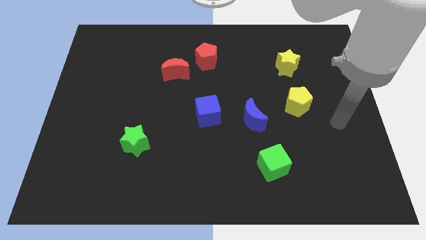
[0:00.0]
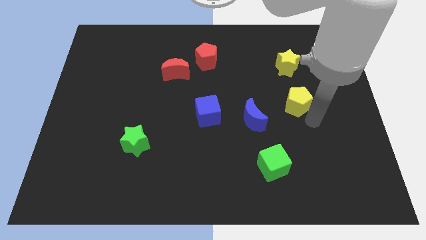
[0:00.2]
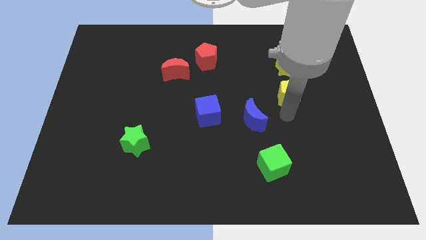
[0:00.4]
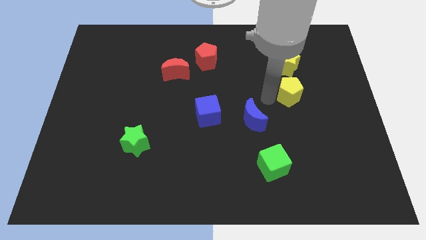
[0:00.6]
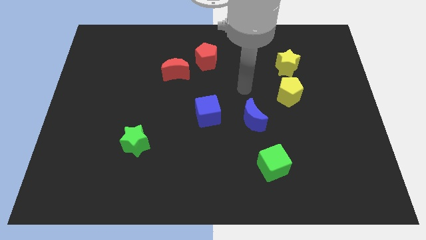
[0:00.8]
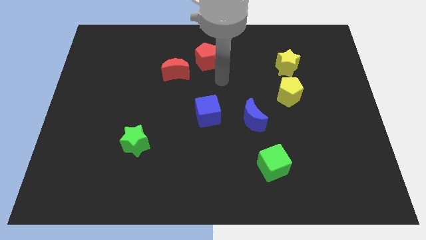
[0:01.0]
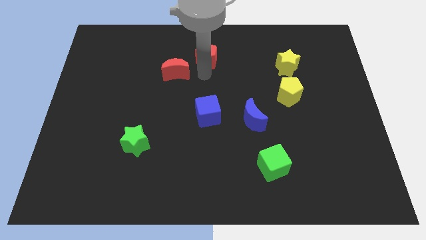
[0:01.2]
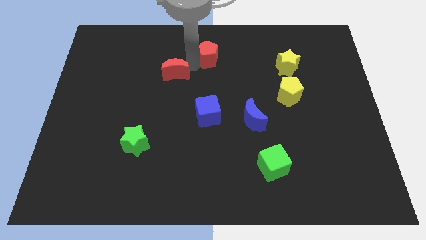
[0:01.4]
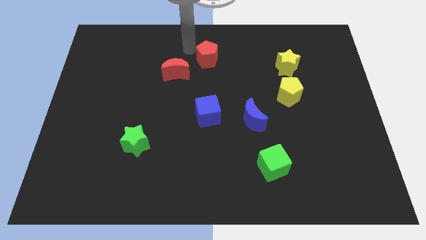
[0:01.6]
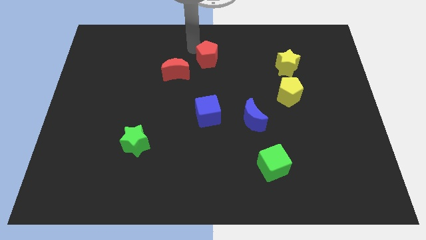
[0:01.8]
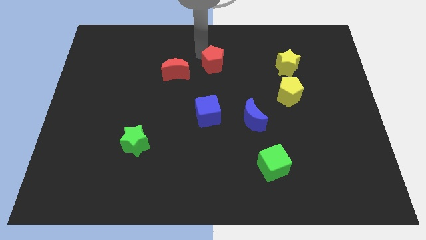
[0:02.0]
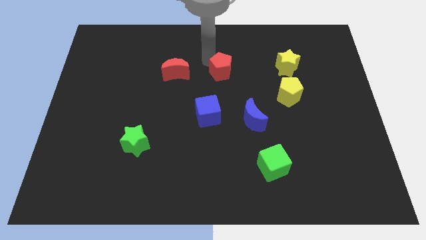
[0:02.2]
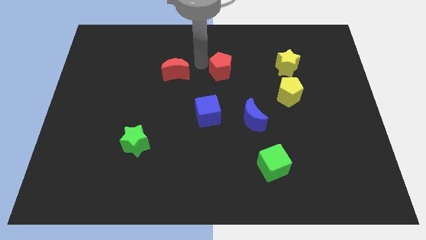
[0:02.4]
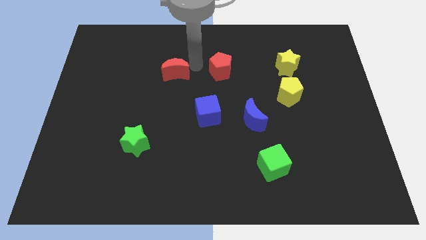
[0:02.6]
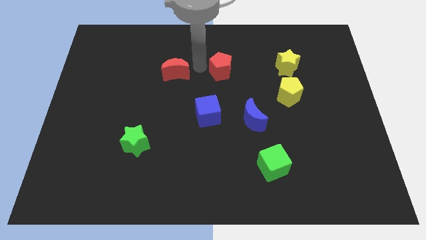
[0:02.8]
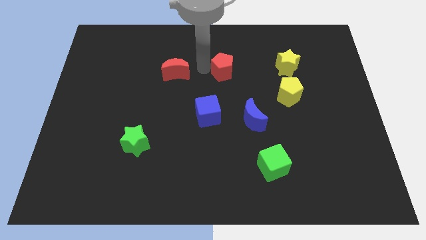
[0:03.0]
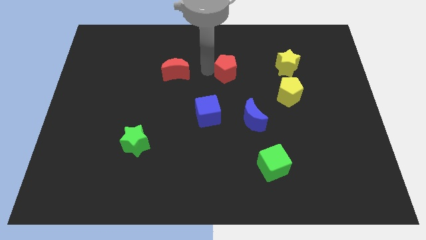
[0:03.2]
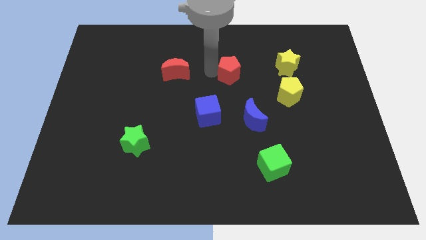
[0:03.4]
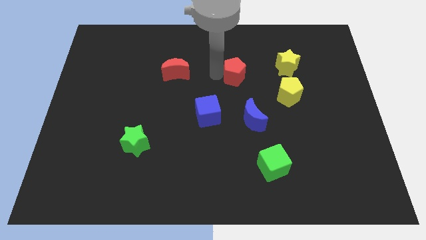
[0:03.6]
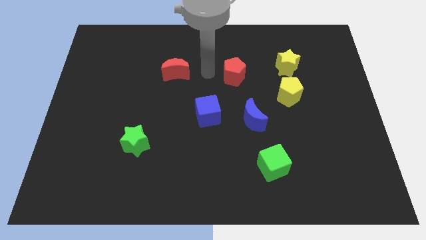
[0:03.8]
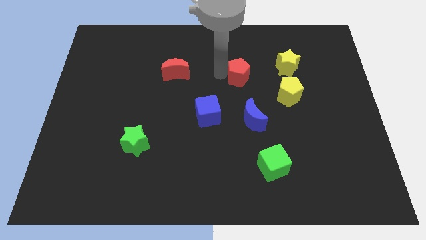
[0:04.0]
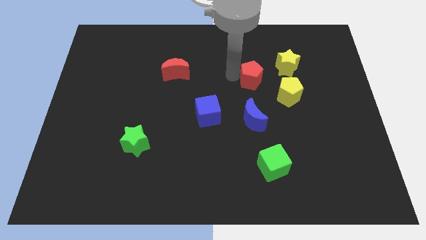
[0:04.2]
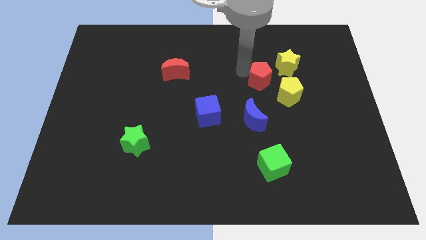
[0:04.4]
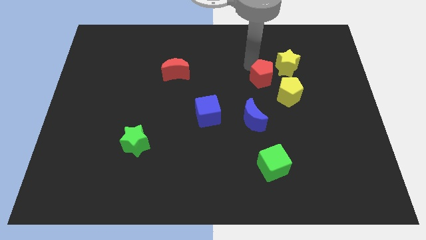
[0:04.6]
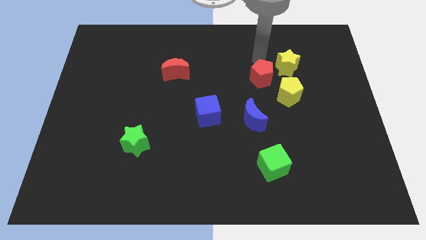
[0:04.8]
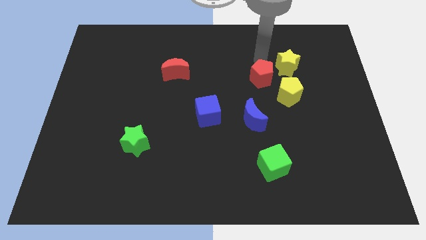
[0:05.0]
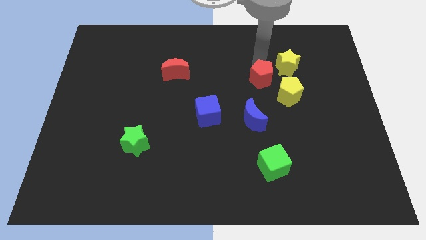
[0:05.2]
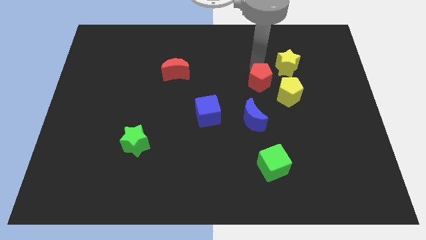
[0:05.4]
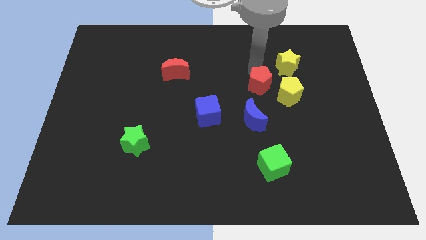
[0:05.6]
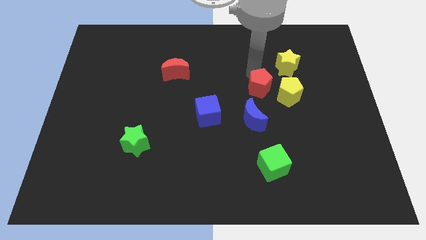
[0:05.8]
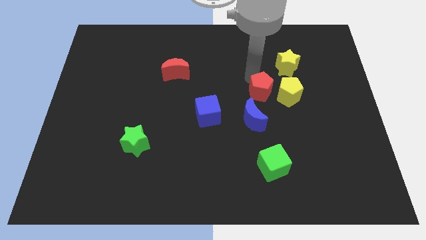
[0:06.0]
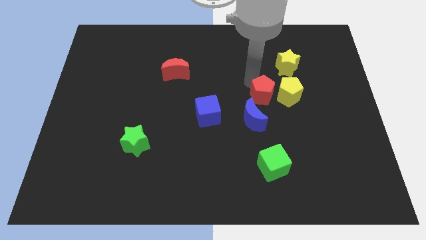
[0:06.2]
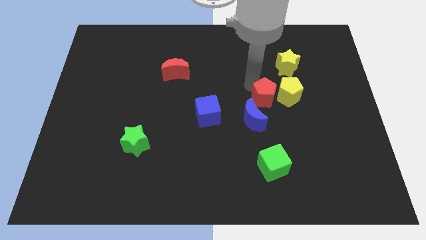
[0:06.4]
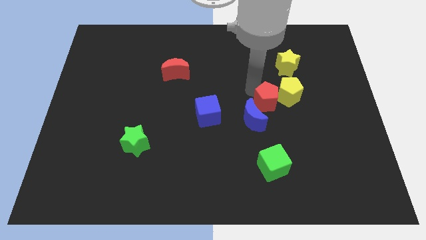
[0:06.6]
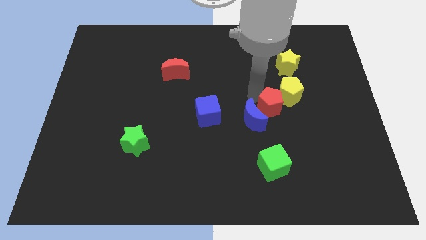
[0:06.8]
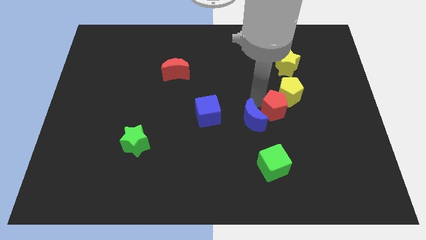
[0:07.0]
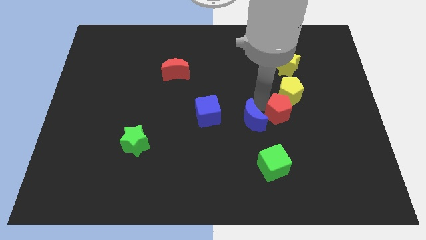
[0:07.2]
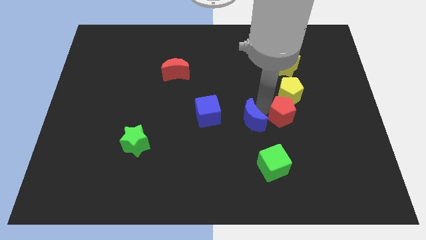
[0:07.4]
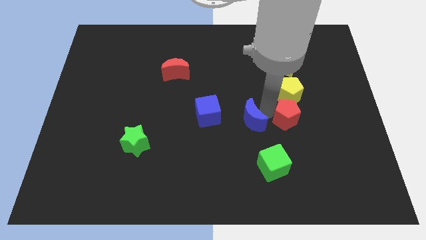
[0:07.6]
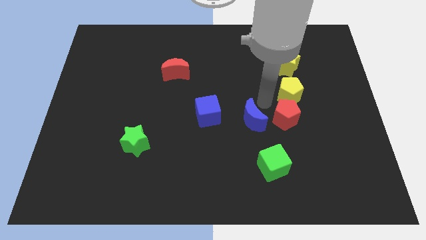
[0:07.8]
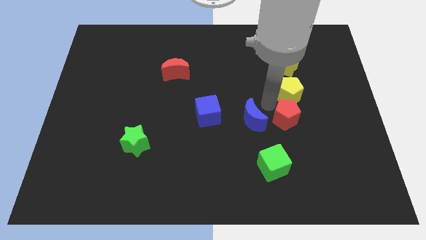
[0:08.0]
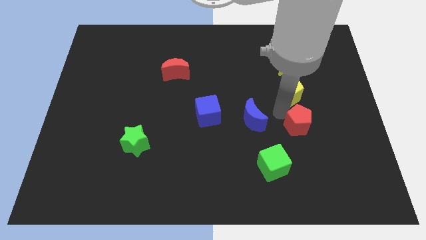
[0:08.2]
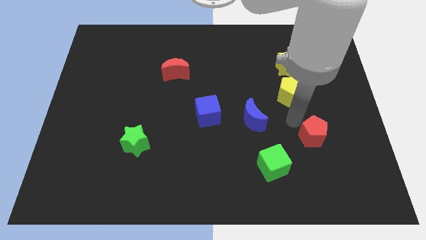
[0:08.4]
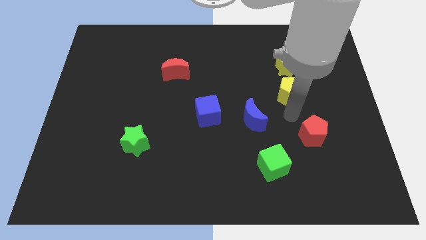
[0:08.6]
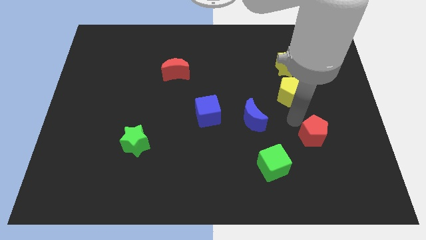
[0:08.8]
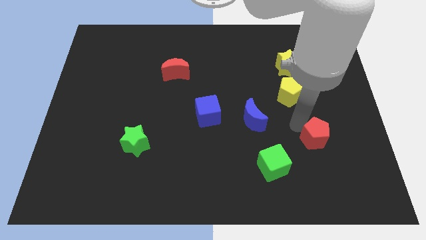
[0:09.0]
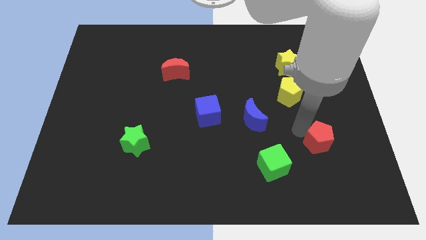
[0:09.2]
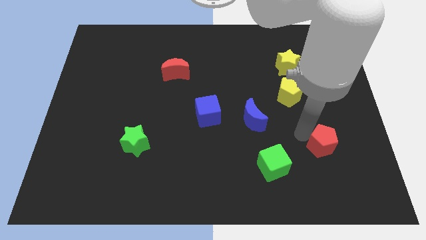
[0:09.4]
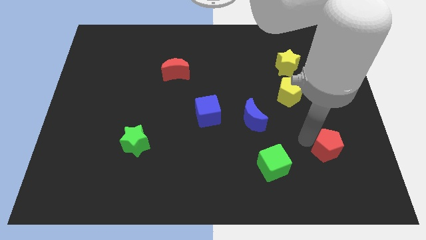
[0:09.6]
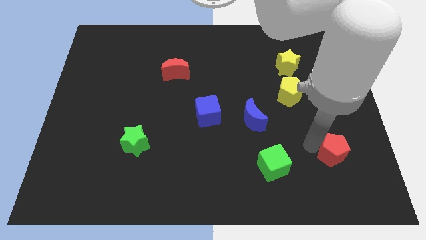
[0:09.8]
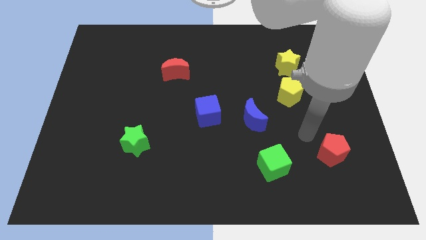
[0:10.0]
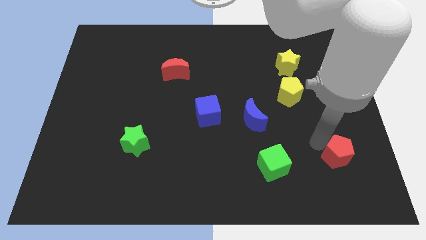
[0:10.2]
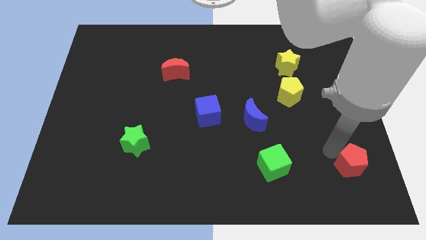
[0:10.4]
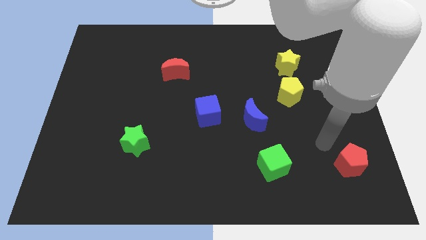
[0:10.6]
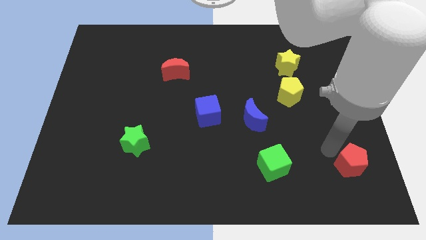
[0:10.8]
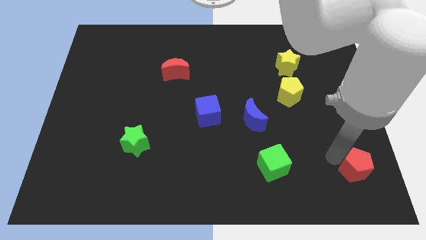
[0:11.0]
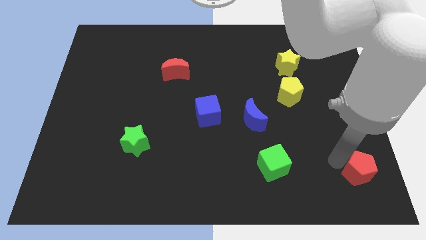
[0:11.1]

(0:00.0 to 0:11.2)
push the red pentagon to the bottom right corner
